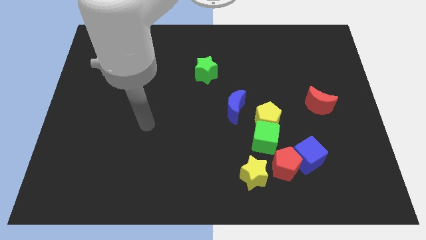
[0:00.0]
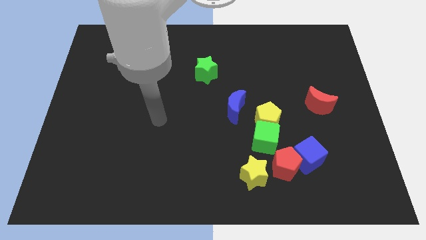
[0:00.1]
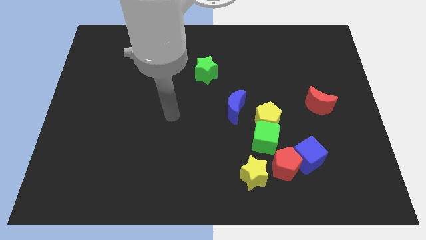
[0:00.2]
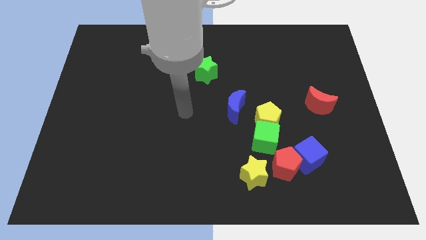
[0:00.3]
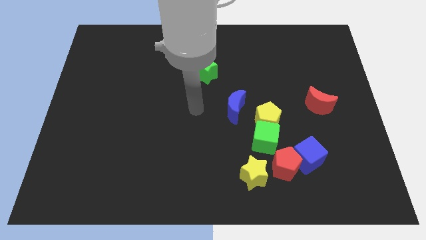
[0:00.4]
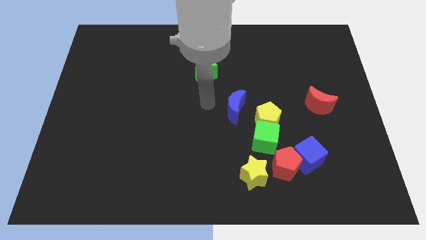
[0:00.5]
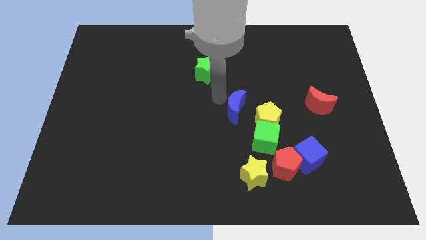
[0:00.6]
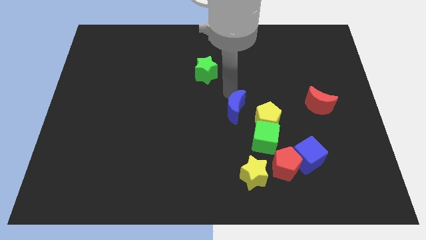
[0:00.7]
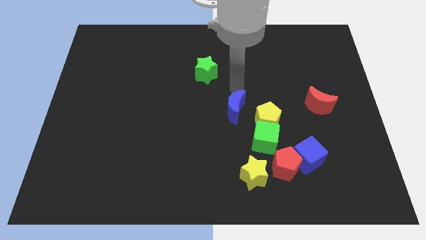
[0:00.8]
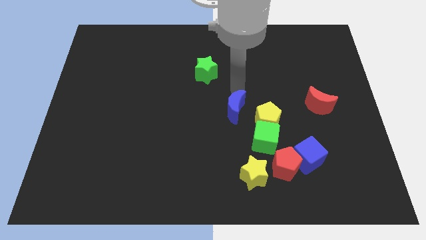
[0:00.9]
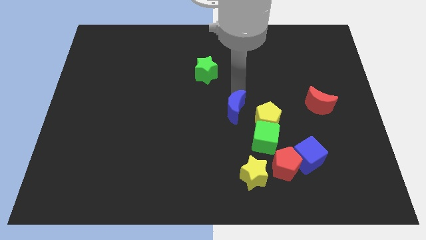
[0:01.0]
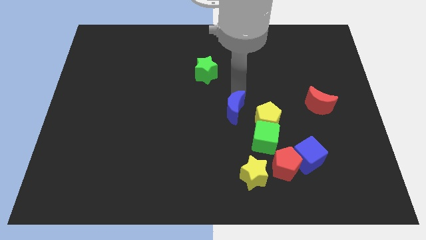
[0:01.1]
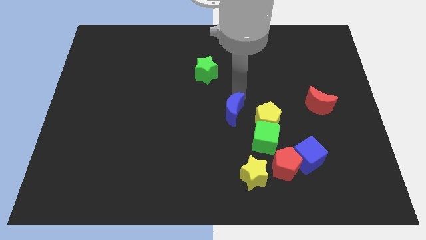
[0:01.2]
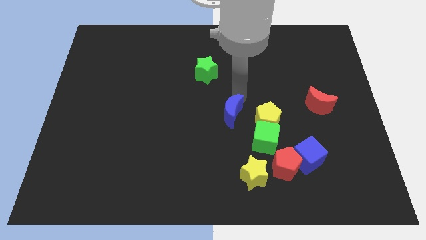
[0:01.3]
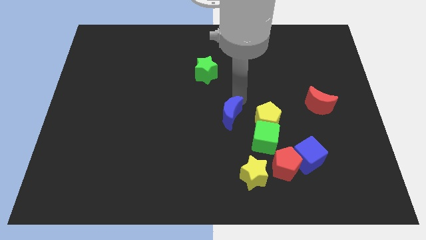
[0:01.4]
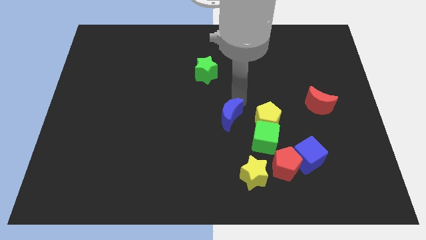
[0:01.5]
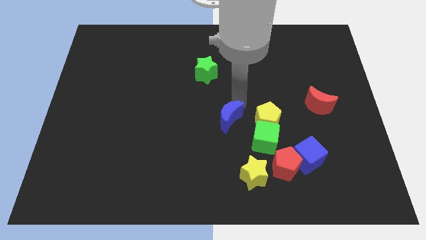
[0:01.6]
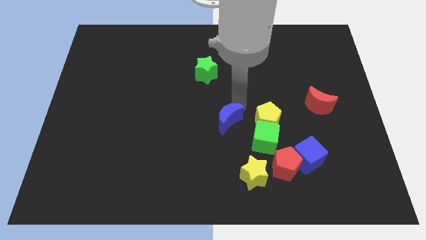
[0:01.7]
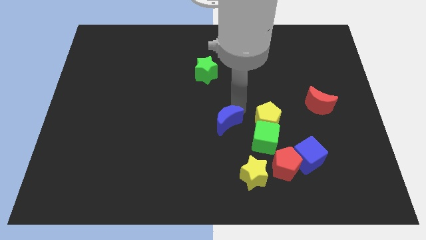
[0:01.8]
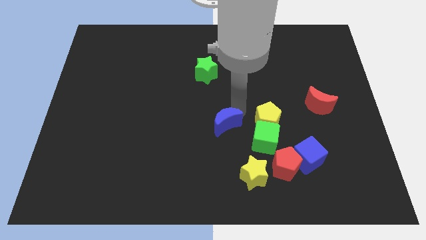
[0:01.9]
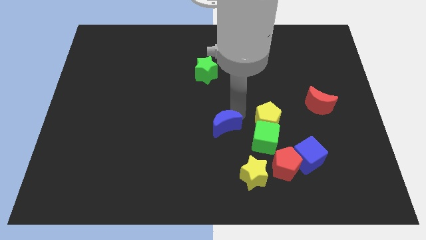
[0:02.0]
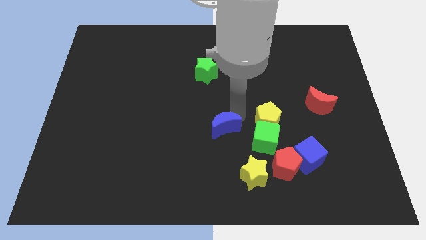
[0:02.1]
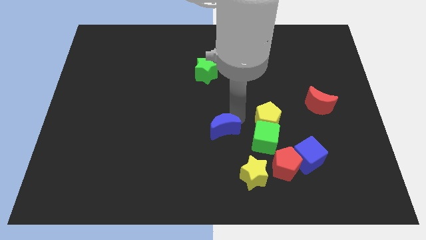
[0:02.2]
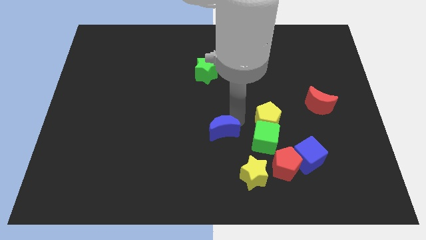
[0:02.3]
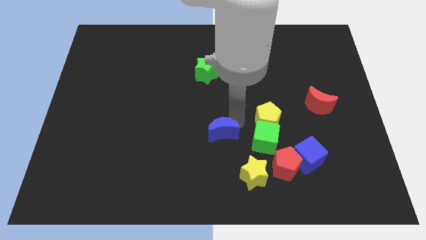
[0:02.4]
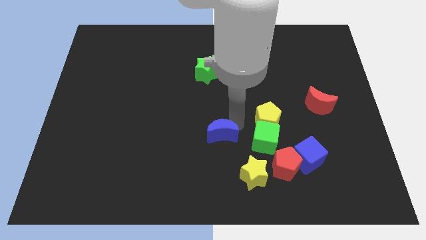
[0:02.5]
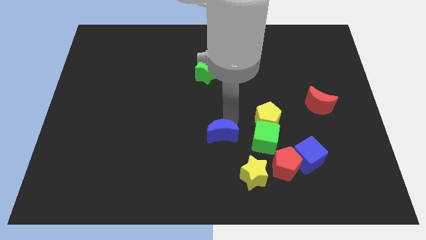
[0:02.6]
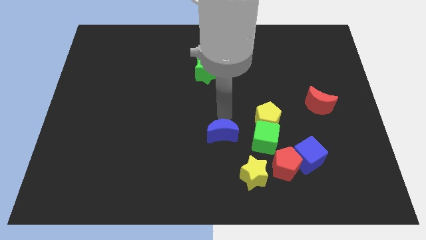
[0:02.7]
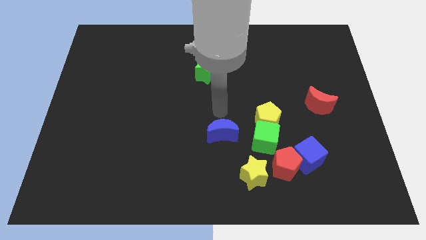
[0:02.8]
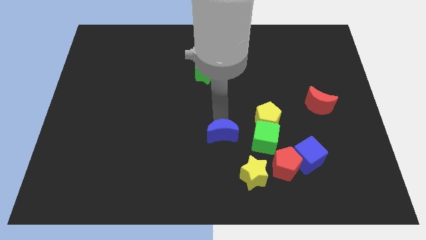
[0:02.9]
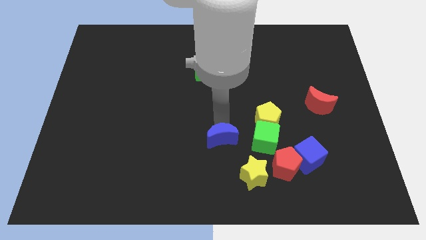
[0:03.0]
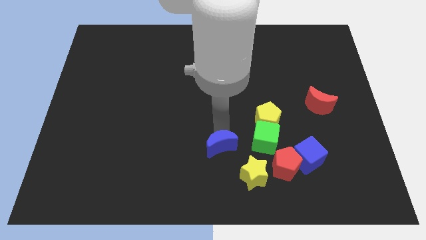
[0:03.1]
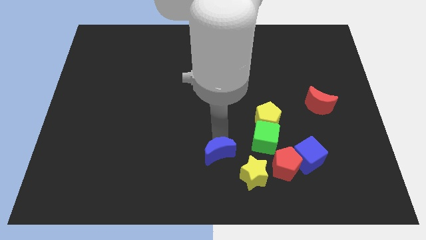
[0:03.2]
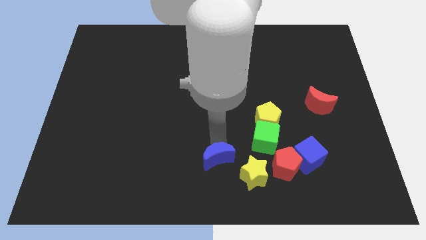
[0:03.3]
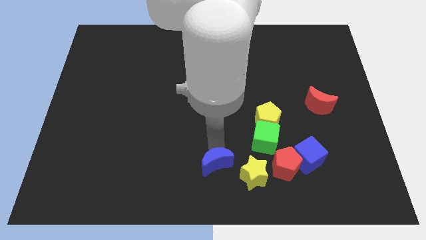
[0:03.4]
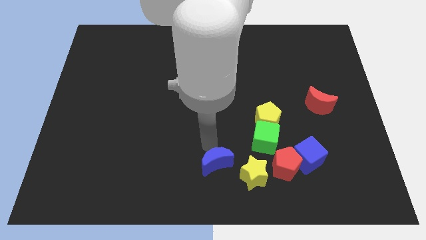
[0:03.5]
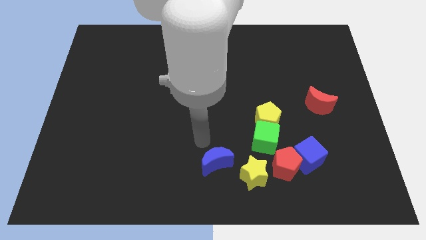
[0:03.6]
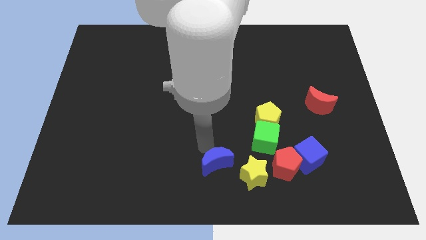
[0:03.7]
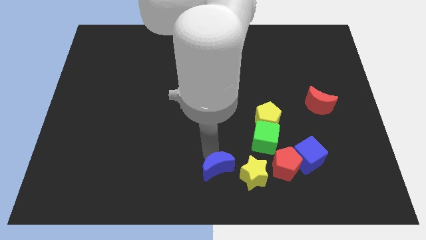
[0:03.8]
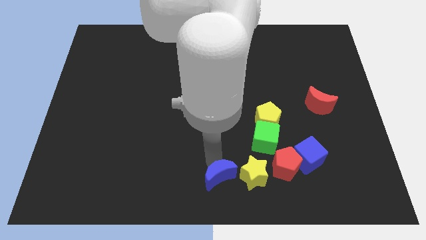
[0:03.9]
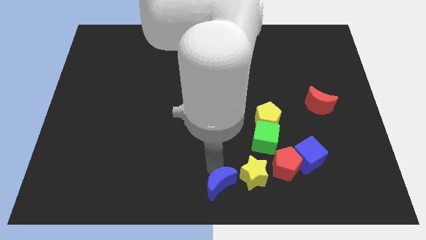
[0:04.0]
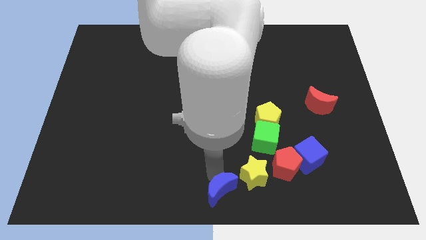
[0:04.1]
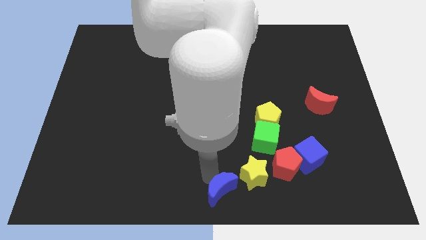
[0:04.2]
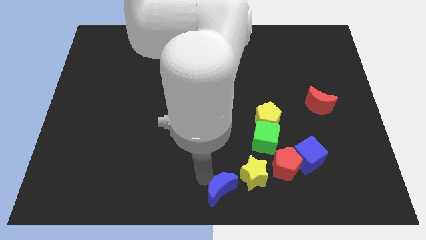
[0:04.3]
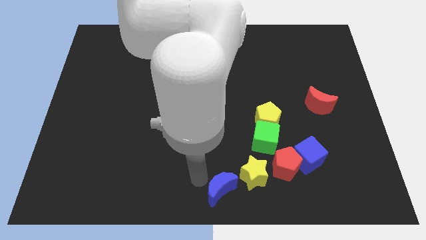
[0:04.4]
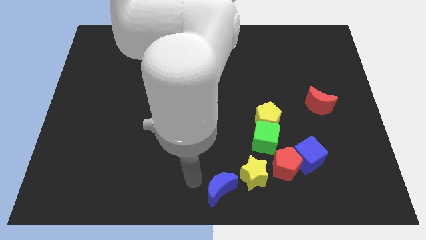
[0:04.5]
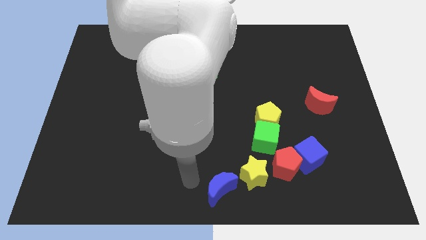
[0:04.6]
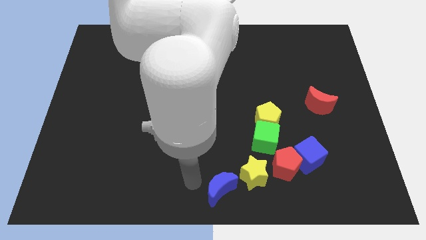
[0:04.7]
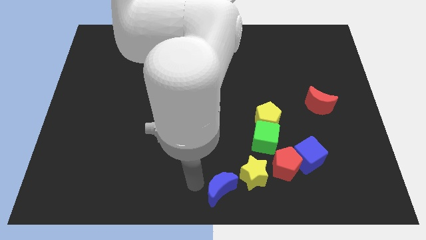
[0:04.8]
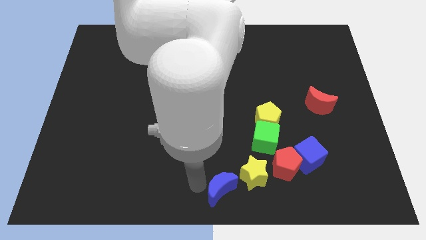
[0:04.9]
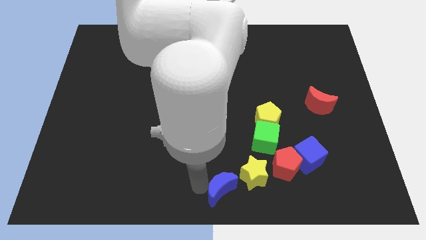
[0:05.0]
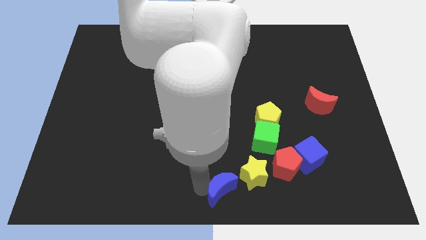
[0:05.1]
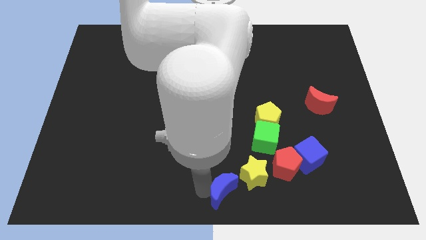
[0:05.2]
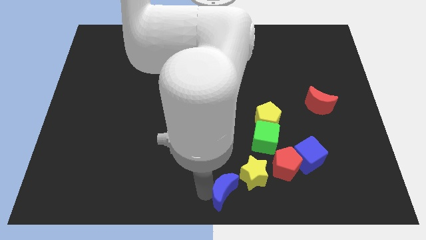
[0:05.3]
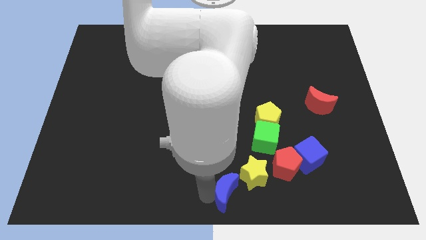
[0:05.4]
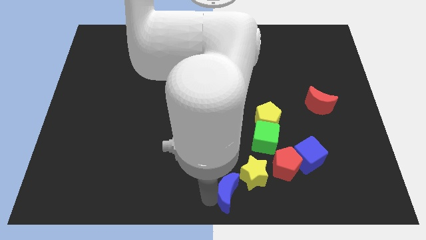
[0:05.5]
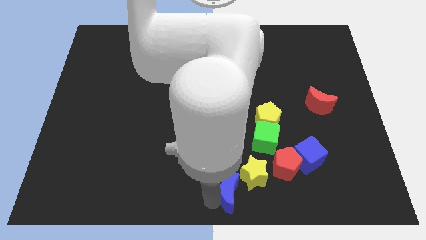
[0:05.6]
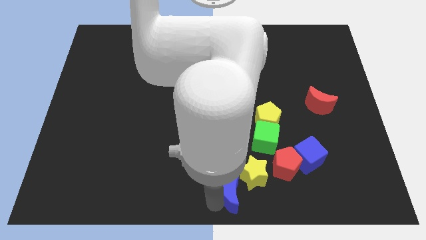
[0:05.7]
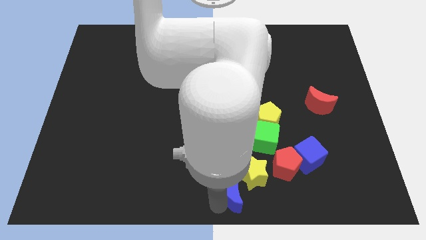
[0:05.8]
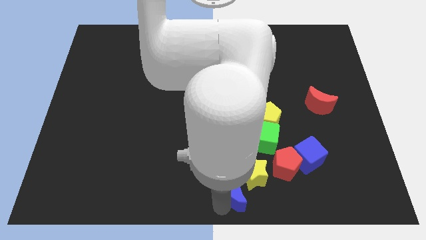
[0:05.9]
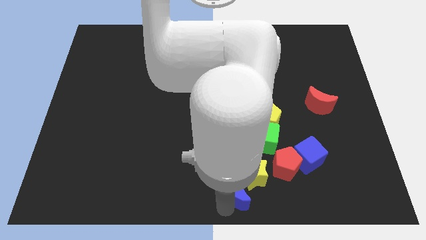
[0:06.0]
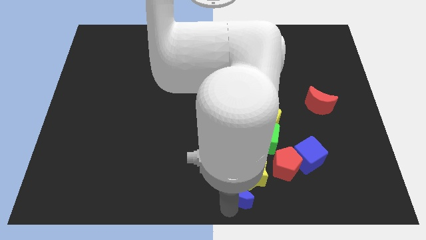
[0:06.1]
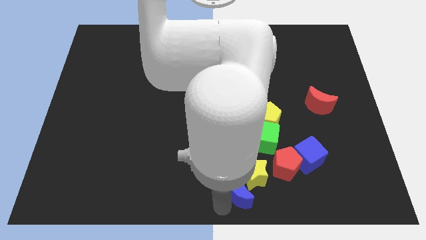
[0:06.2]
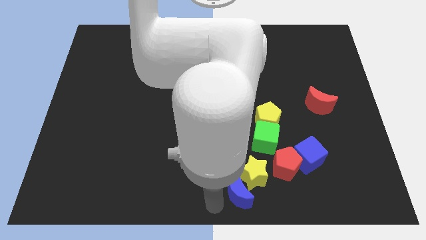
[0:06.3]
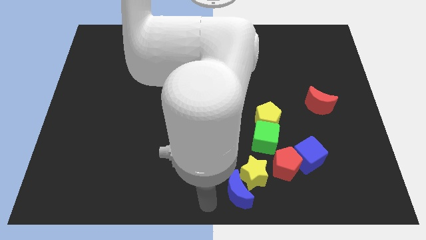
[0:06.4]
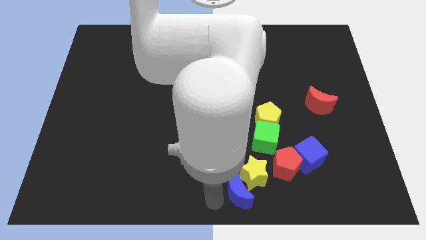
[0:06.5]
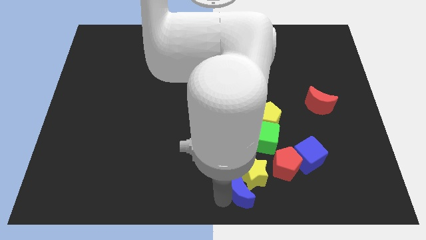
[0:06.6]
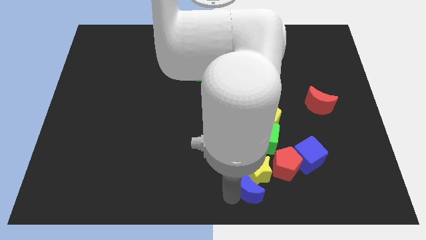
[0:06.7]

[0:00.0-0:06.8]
slide the blue moon to the bottom side of the green cube
